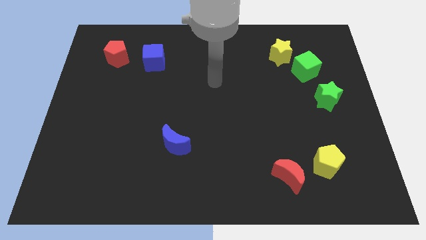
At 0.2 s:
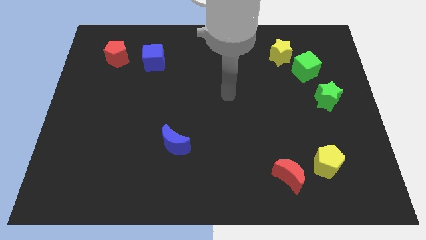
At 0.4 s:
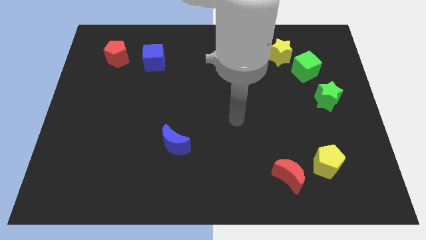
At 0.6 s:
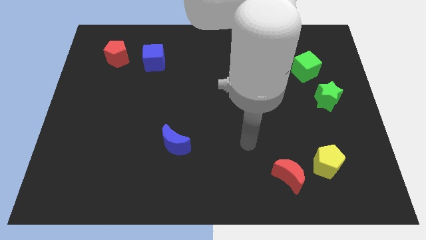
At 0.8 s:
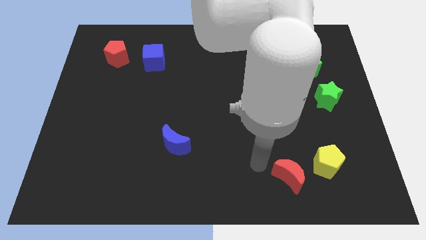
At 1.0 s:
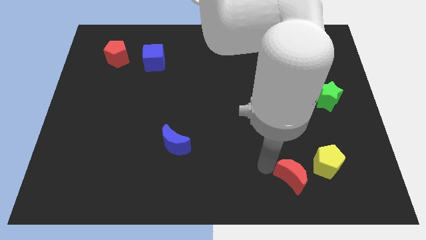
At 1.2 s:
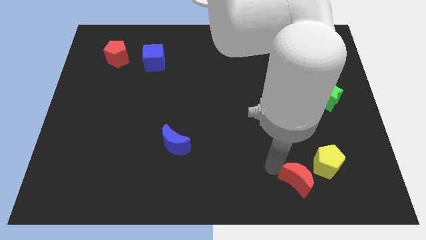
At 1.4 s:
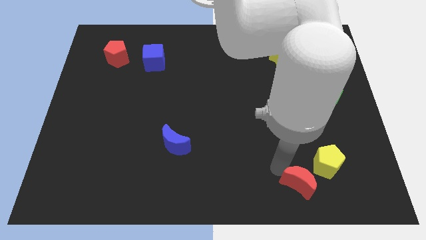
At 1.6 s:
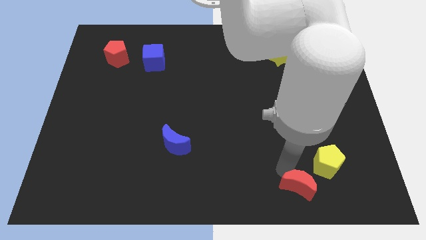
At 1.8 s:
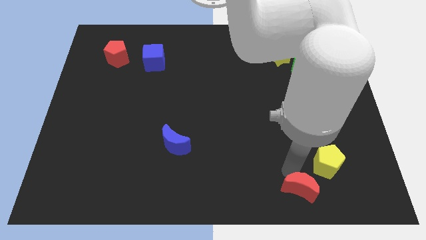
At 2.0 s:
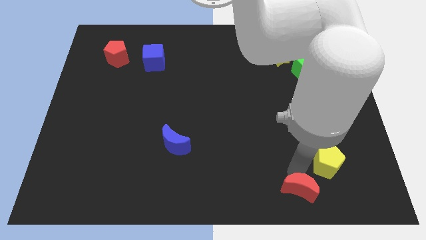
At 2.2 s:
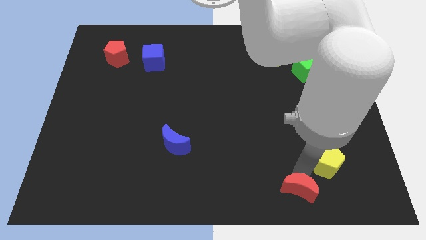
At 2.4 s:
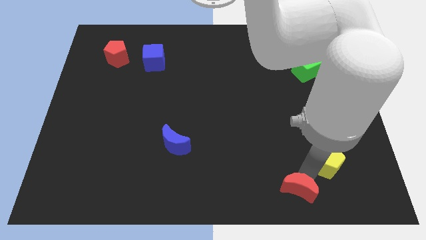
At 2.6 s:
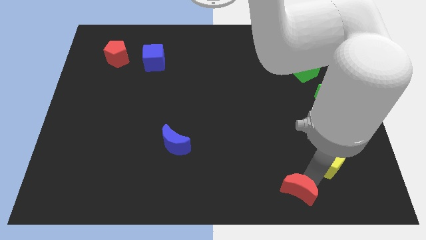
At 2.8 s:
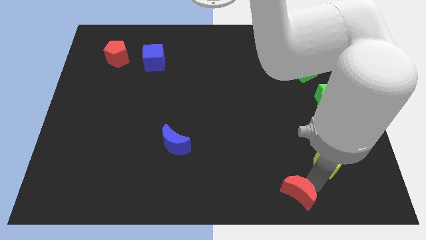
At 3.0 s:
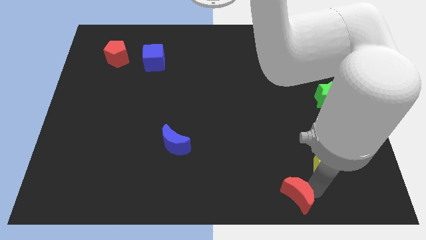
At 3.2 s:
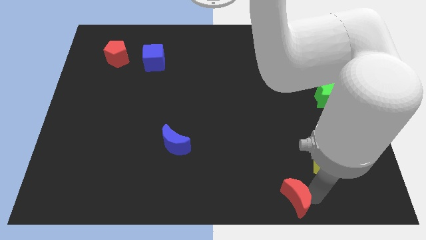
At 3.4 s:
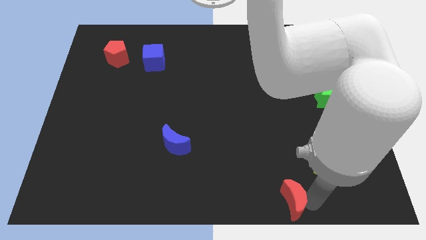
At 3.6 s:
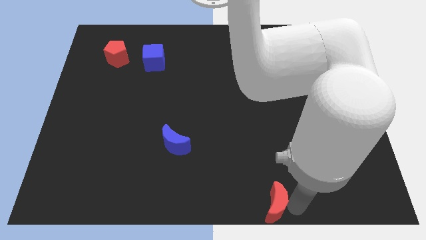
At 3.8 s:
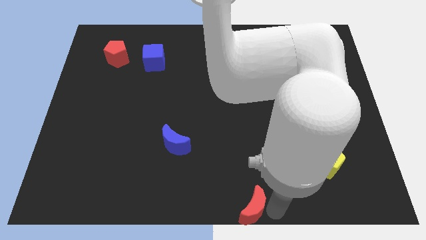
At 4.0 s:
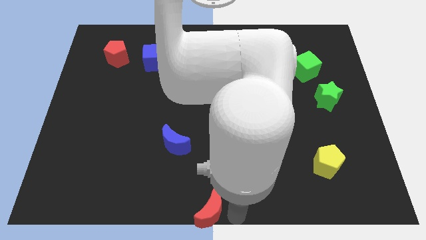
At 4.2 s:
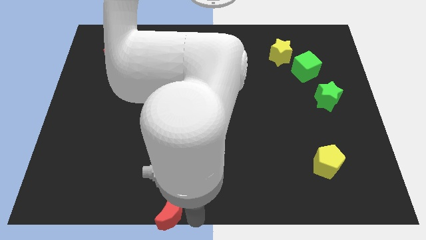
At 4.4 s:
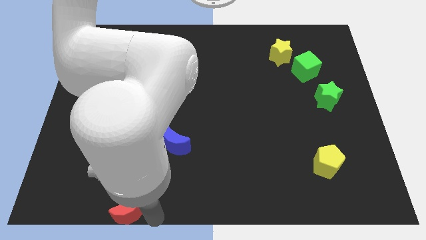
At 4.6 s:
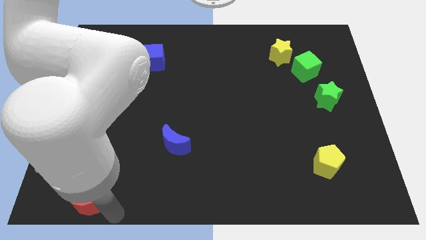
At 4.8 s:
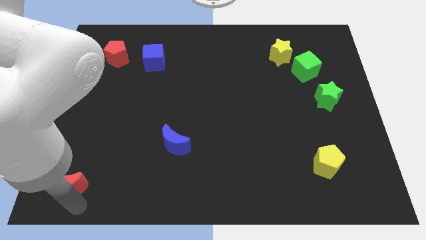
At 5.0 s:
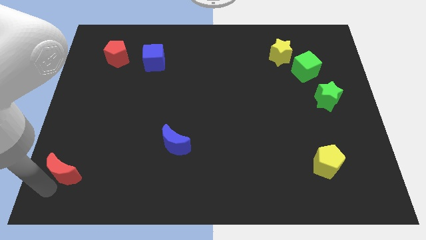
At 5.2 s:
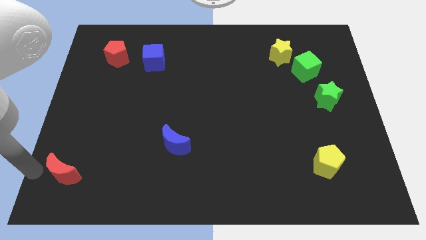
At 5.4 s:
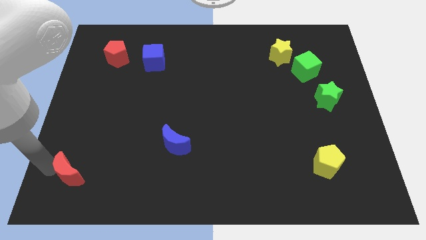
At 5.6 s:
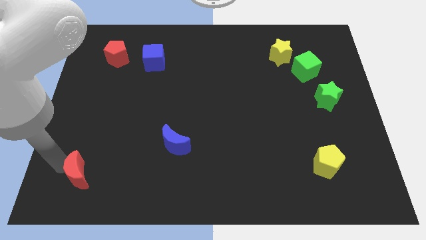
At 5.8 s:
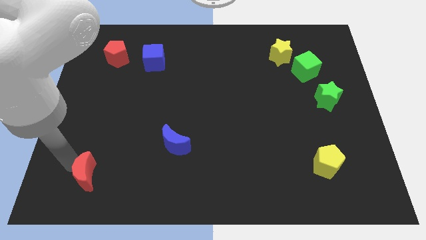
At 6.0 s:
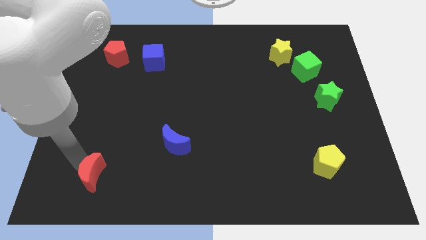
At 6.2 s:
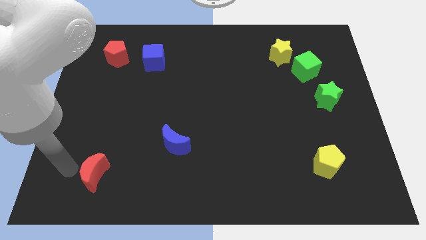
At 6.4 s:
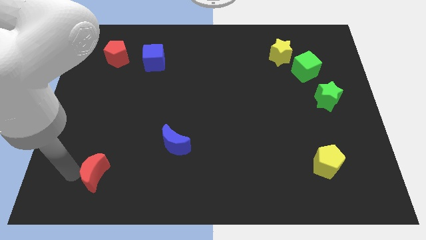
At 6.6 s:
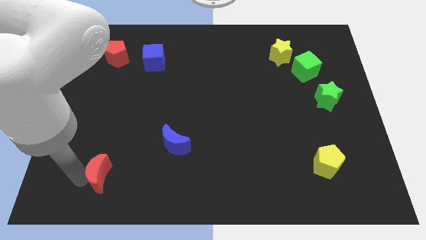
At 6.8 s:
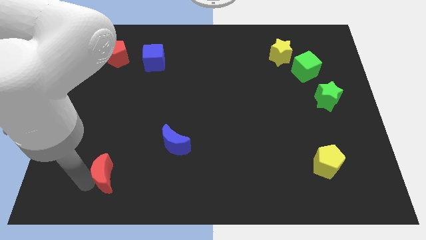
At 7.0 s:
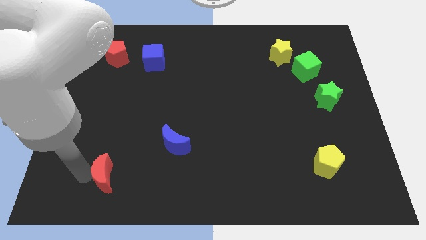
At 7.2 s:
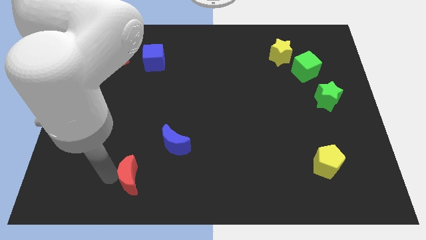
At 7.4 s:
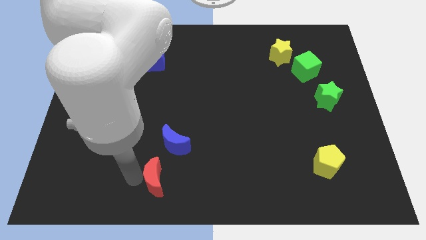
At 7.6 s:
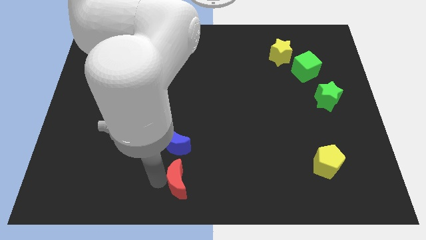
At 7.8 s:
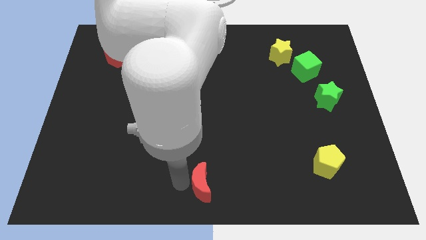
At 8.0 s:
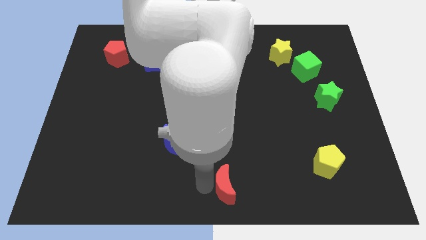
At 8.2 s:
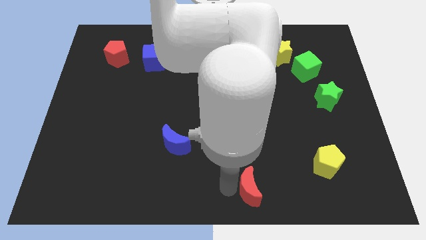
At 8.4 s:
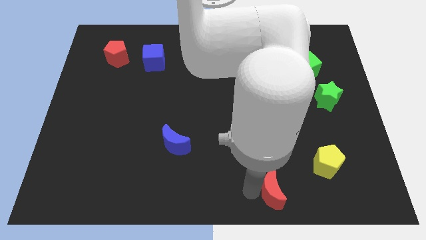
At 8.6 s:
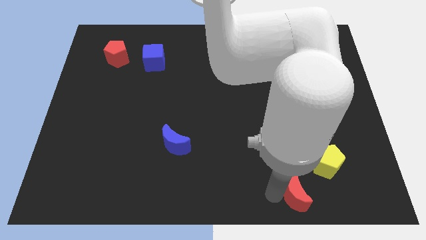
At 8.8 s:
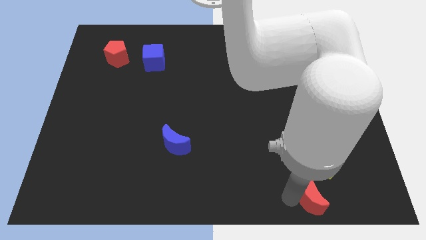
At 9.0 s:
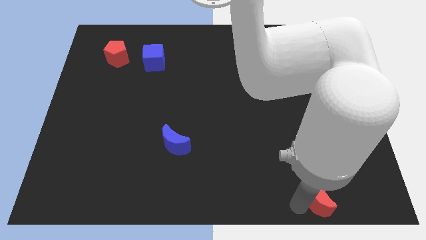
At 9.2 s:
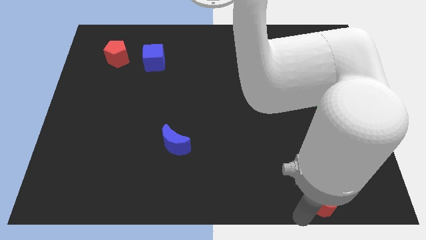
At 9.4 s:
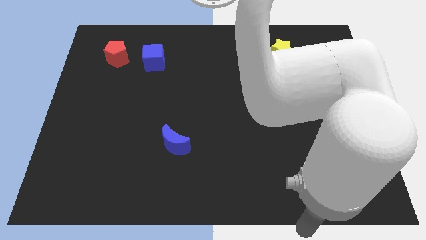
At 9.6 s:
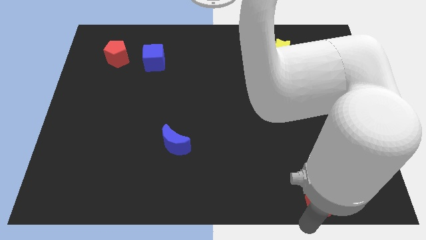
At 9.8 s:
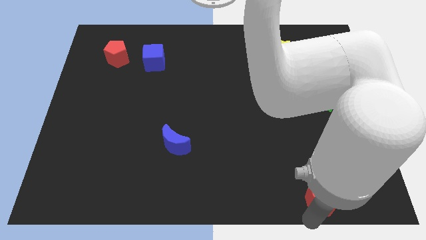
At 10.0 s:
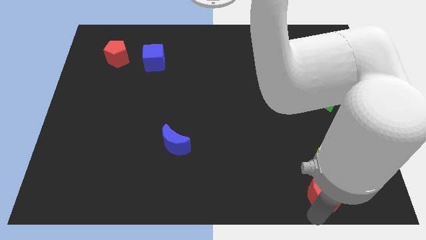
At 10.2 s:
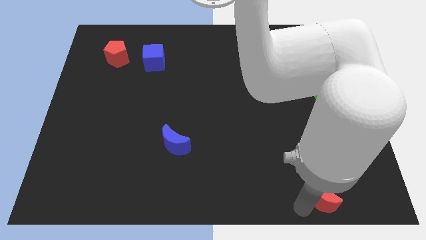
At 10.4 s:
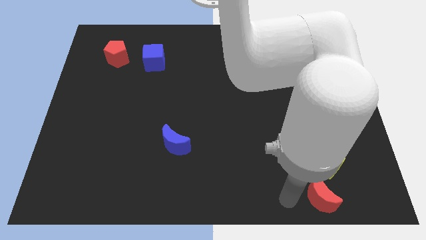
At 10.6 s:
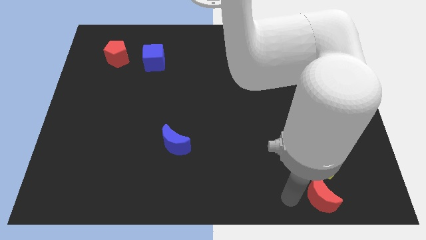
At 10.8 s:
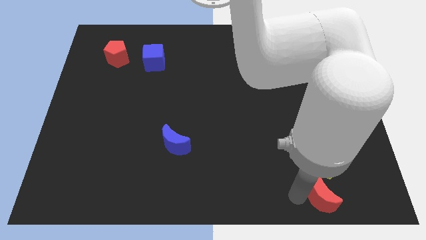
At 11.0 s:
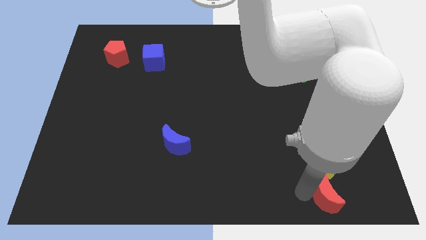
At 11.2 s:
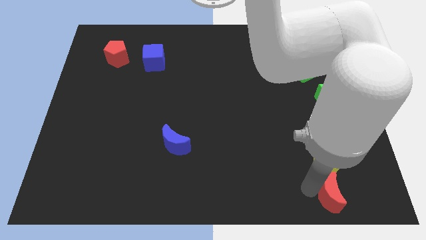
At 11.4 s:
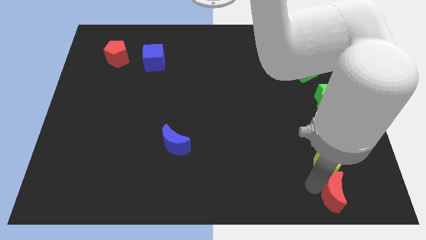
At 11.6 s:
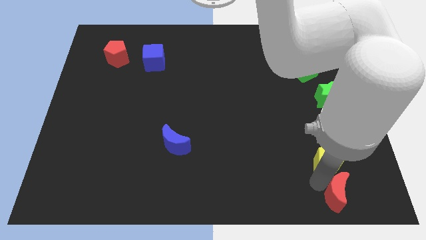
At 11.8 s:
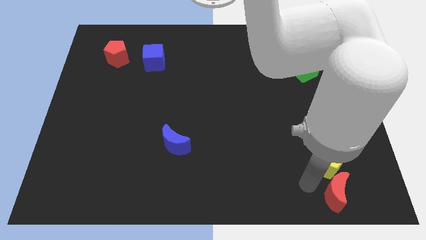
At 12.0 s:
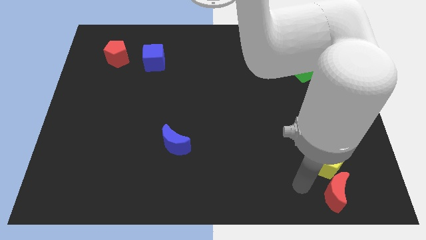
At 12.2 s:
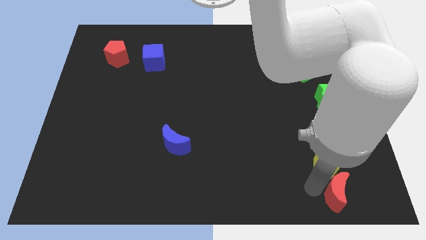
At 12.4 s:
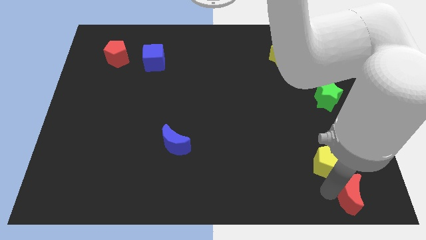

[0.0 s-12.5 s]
move the red moon to the bottom right corner
